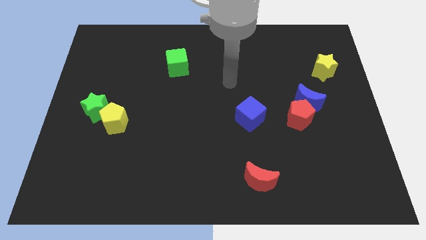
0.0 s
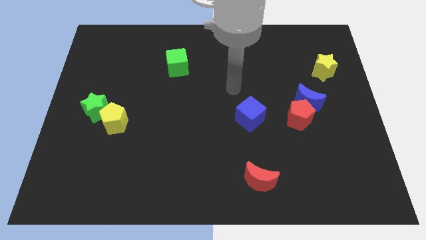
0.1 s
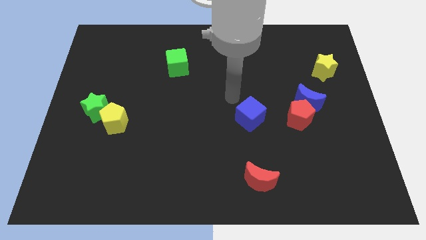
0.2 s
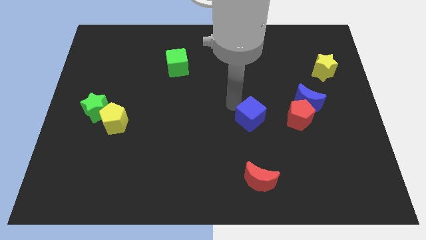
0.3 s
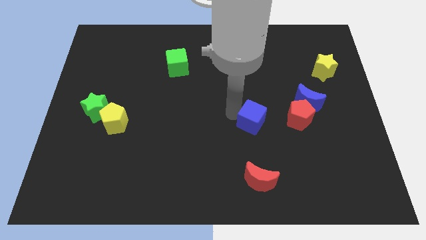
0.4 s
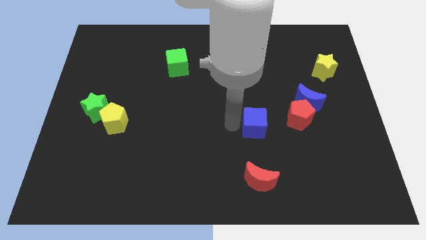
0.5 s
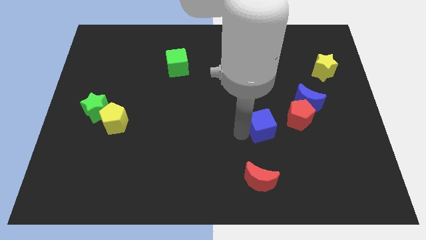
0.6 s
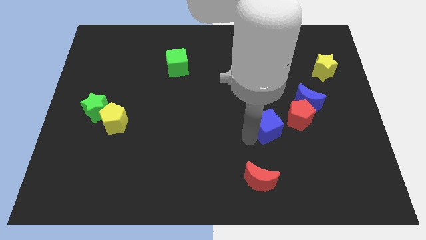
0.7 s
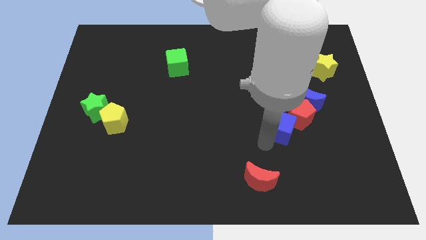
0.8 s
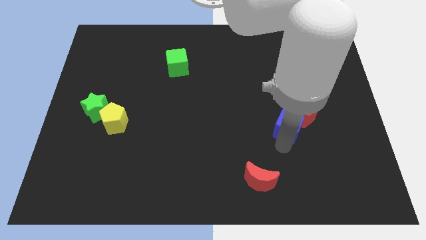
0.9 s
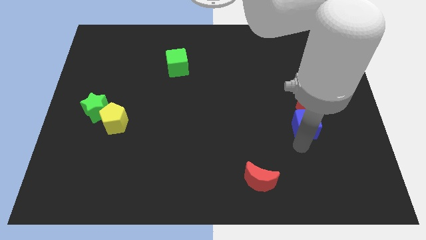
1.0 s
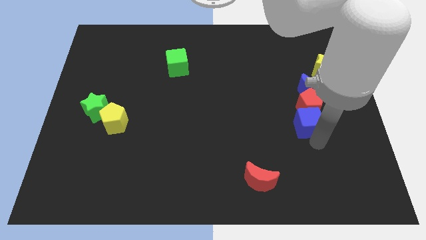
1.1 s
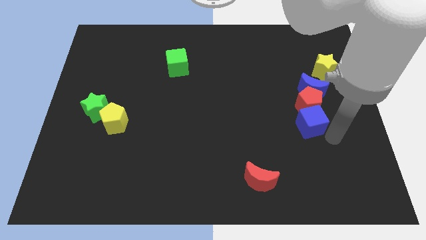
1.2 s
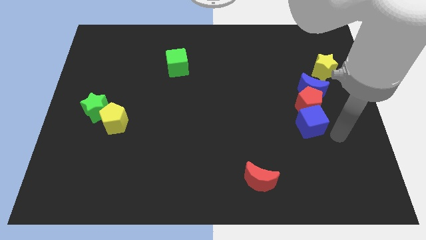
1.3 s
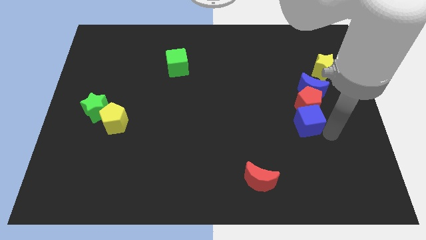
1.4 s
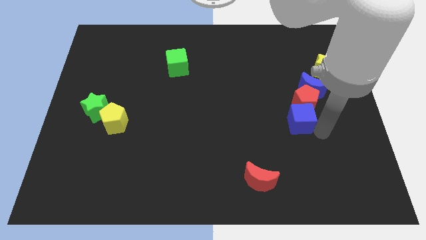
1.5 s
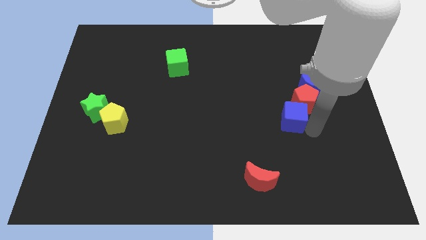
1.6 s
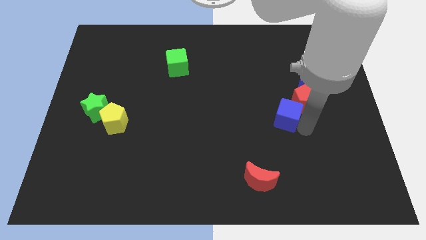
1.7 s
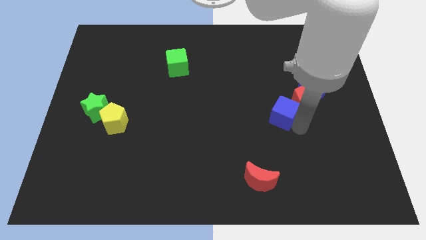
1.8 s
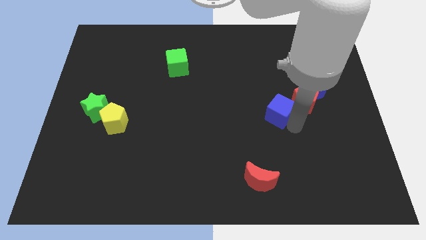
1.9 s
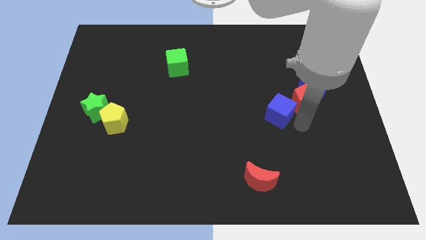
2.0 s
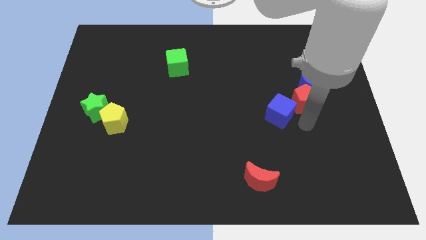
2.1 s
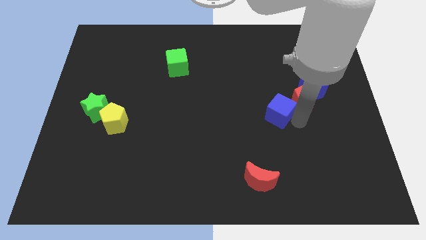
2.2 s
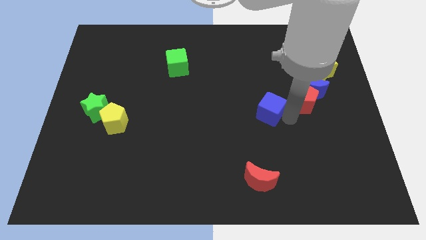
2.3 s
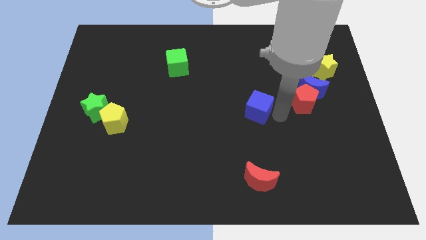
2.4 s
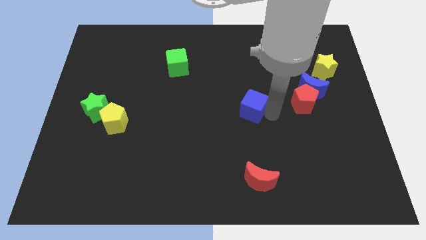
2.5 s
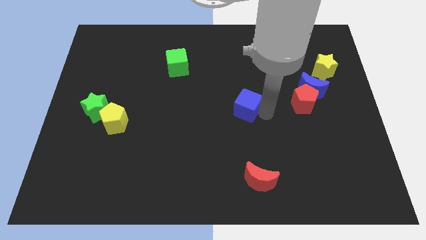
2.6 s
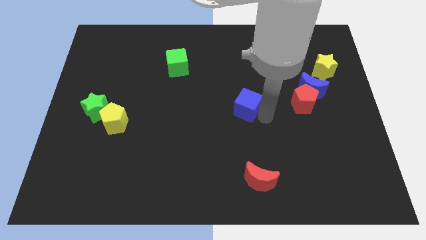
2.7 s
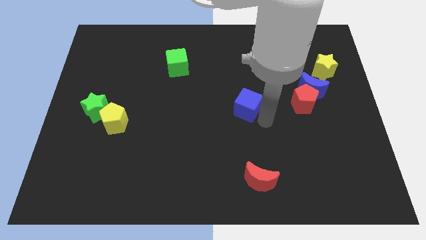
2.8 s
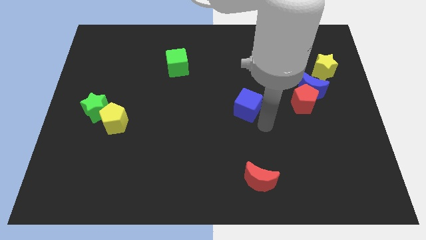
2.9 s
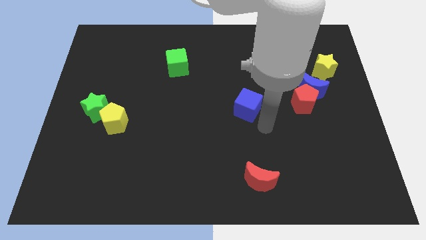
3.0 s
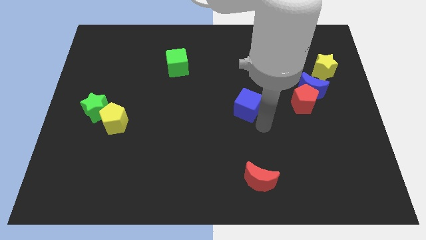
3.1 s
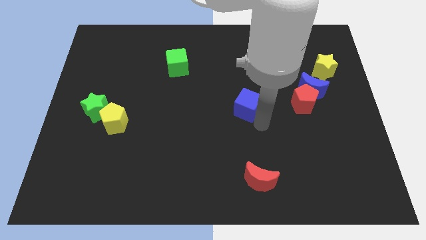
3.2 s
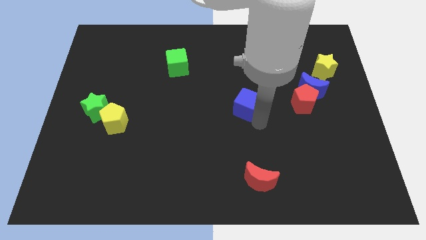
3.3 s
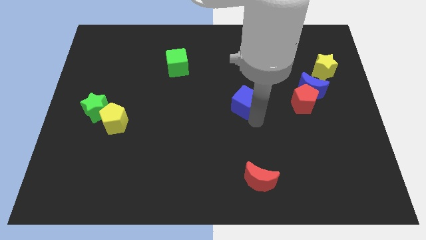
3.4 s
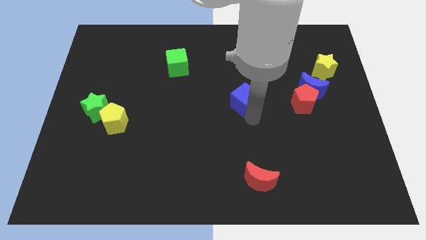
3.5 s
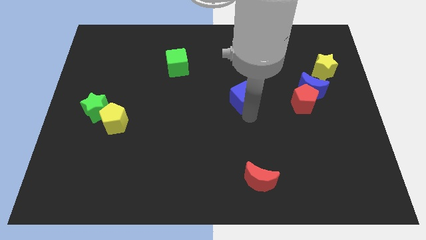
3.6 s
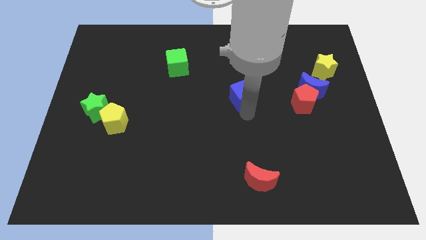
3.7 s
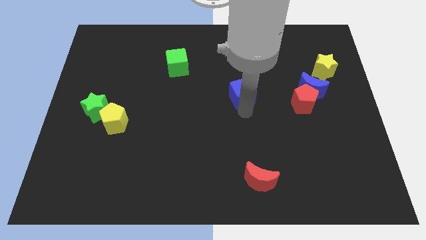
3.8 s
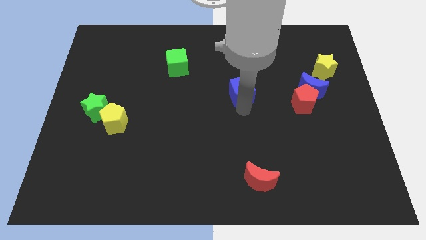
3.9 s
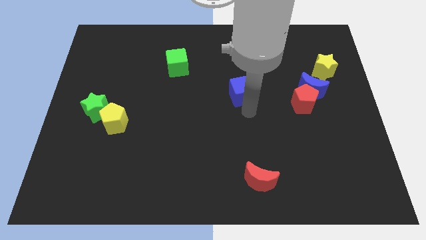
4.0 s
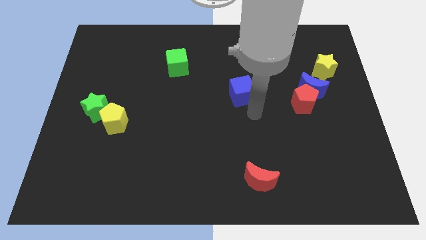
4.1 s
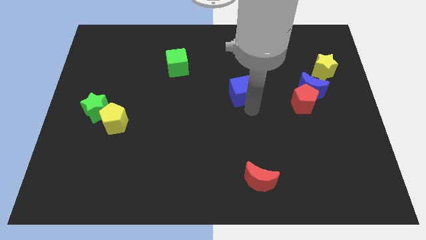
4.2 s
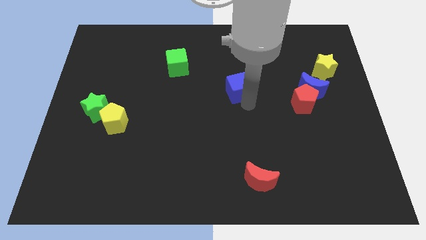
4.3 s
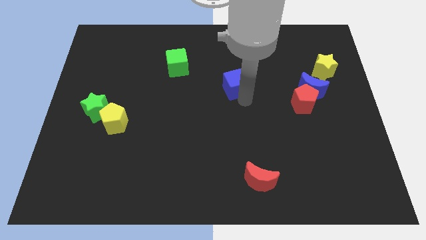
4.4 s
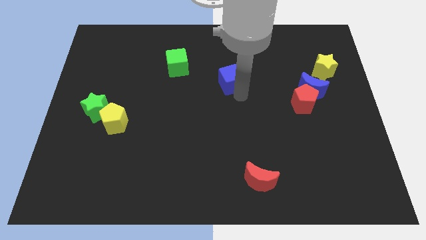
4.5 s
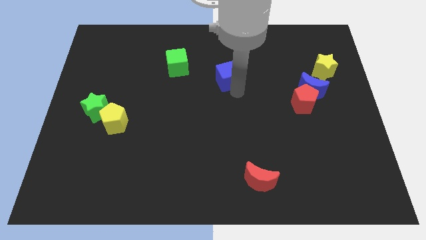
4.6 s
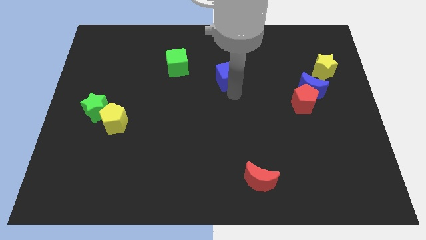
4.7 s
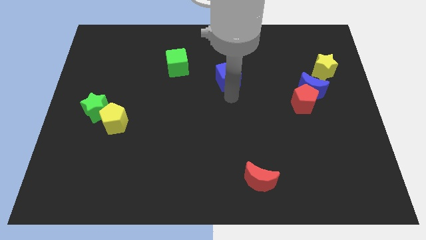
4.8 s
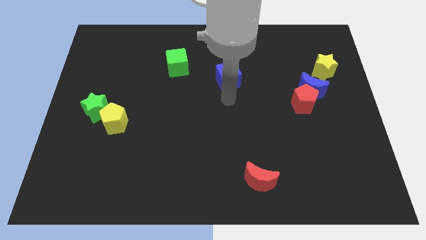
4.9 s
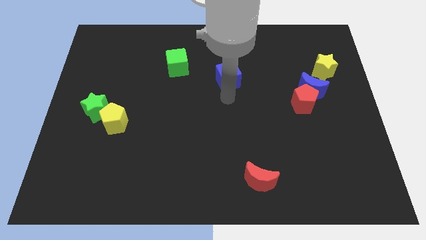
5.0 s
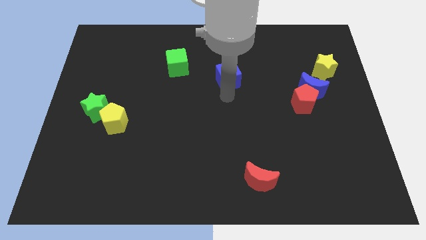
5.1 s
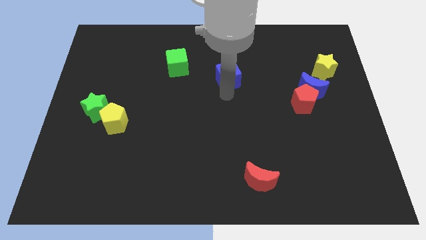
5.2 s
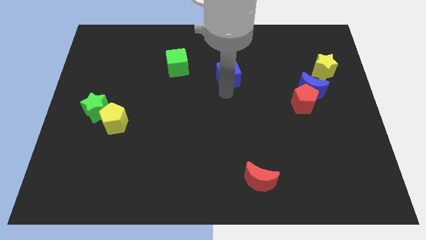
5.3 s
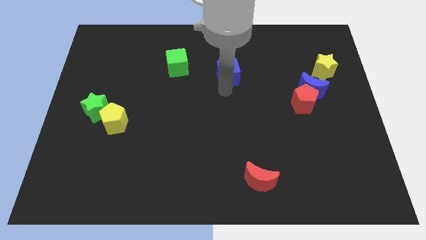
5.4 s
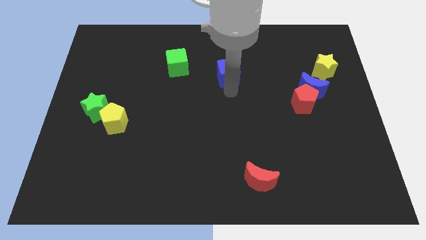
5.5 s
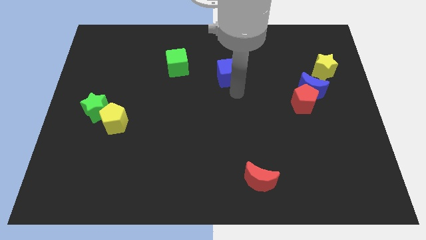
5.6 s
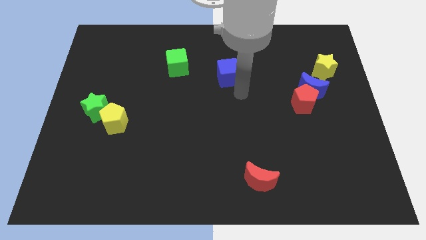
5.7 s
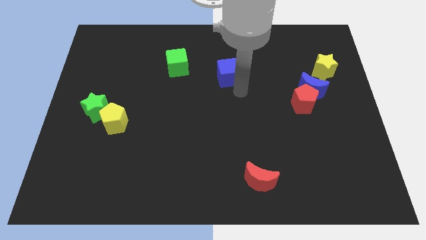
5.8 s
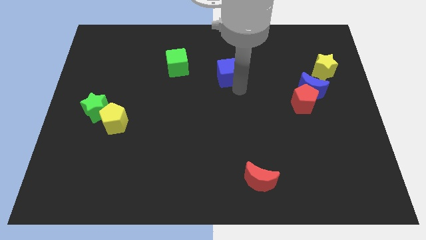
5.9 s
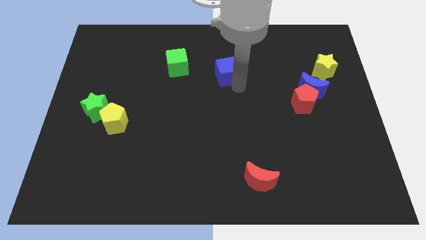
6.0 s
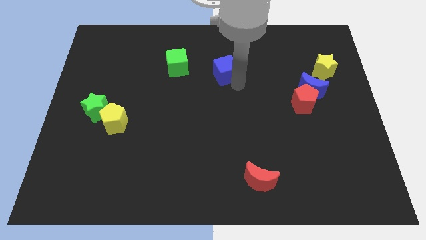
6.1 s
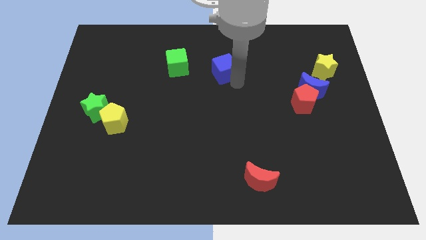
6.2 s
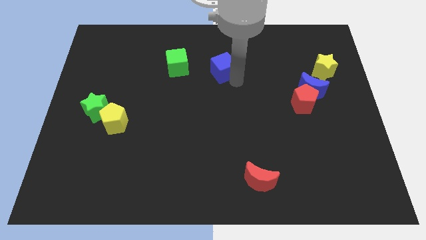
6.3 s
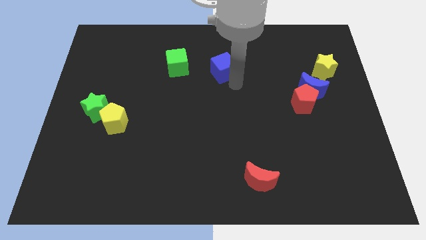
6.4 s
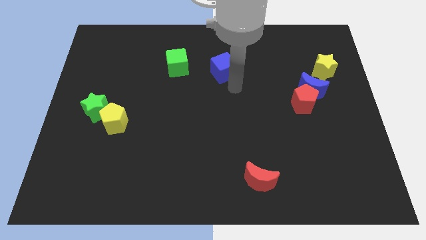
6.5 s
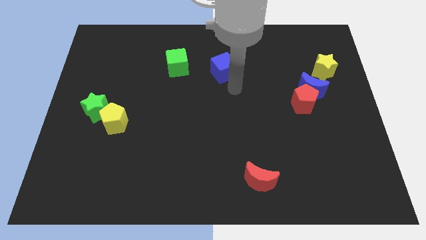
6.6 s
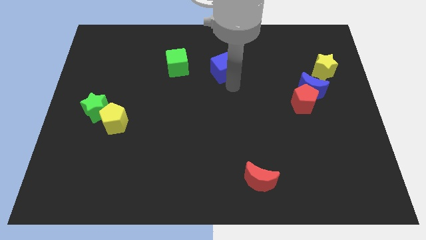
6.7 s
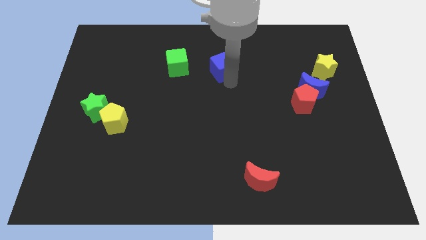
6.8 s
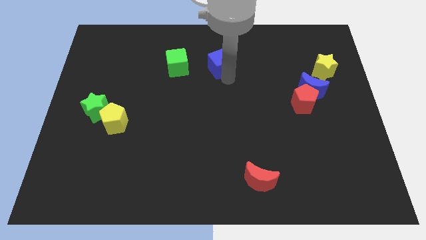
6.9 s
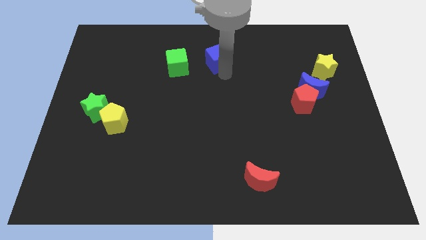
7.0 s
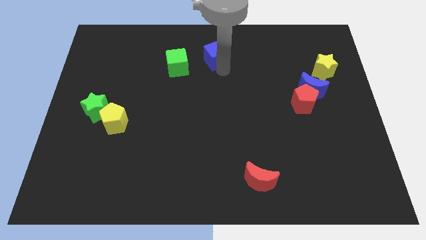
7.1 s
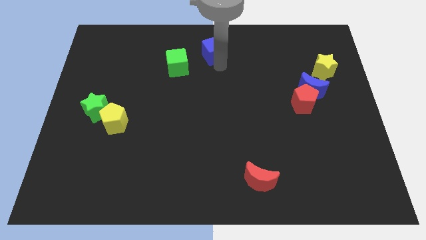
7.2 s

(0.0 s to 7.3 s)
put the blue cube to the top side

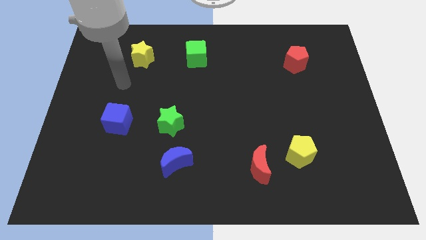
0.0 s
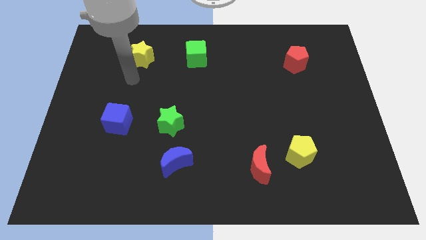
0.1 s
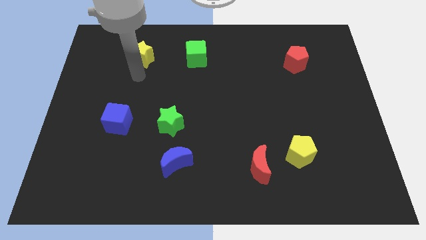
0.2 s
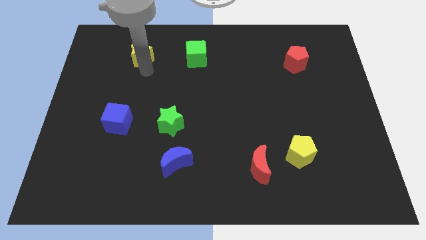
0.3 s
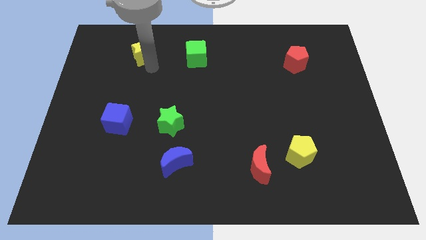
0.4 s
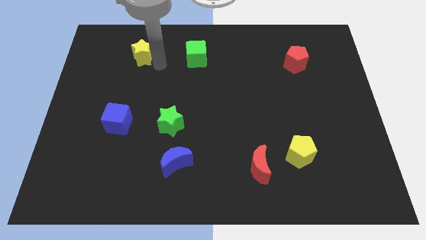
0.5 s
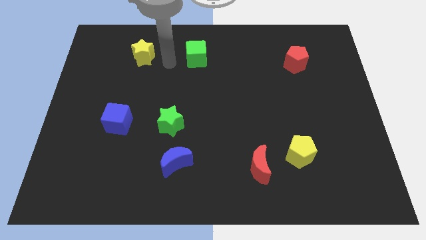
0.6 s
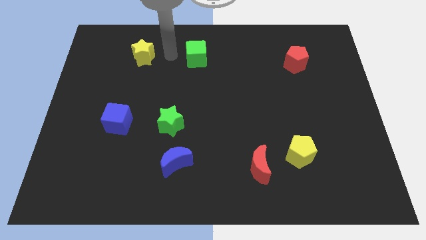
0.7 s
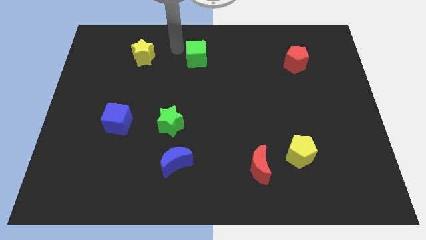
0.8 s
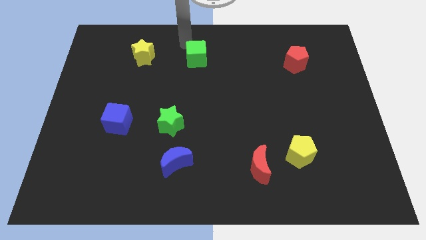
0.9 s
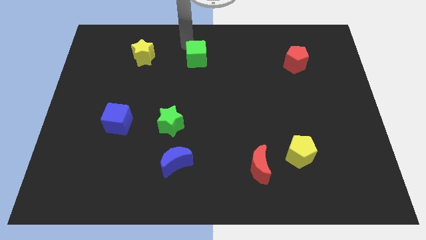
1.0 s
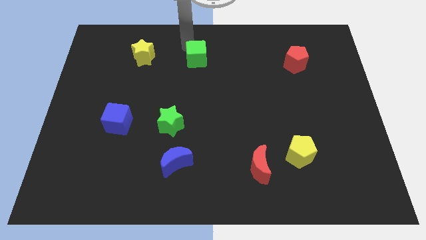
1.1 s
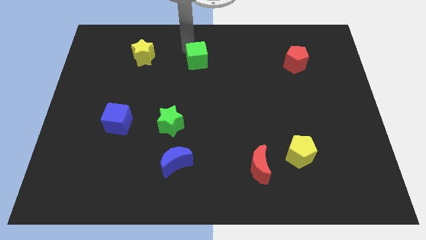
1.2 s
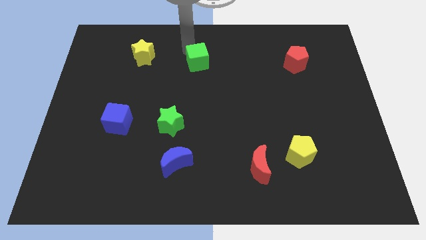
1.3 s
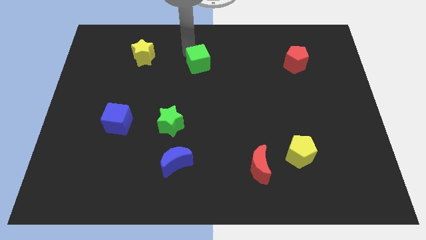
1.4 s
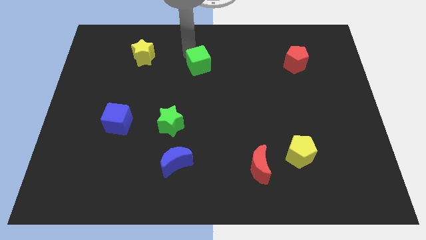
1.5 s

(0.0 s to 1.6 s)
slide the green cube to the middle
